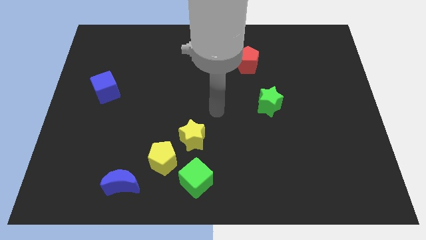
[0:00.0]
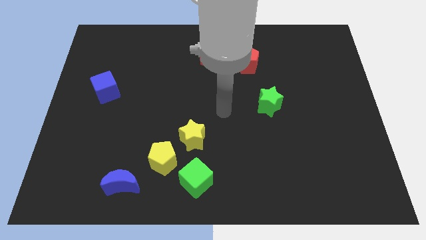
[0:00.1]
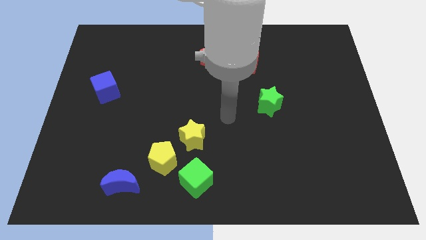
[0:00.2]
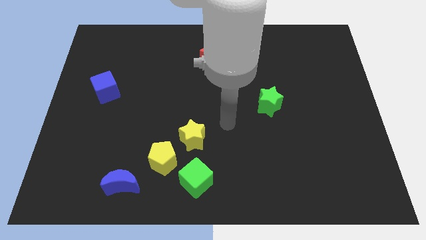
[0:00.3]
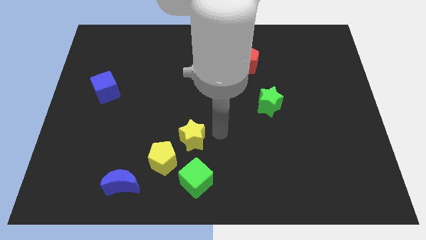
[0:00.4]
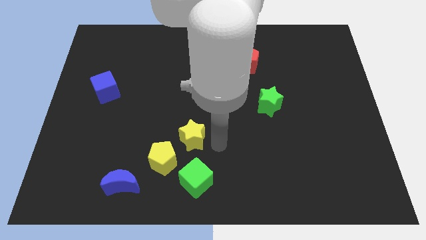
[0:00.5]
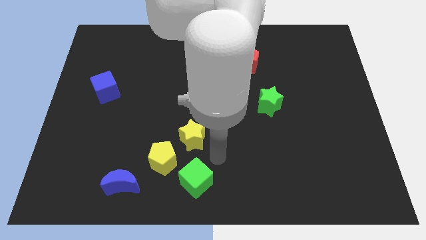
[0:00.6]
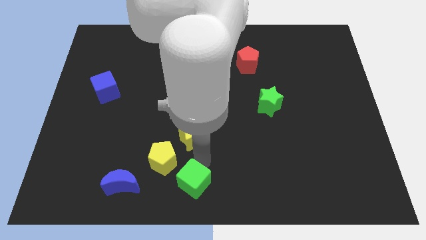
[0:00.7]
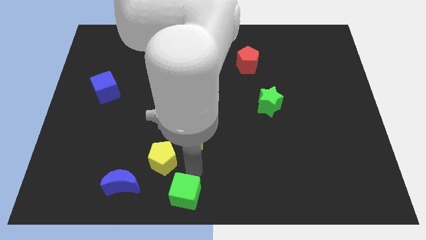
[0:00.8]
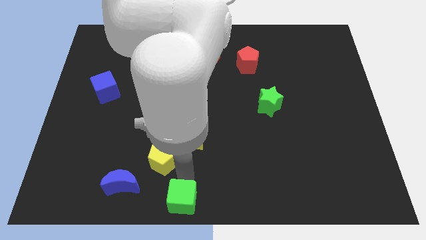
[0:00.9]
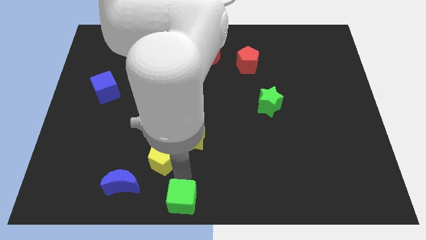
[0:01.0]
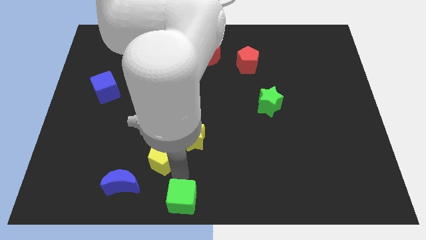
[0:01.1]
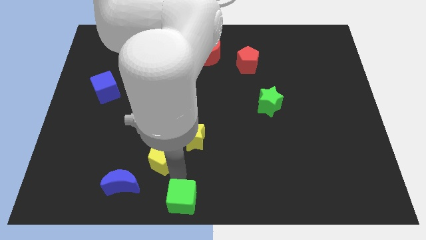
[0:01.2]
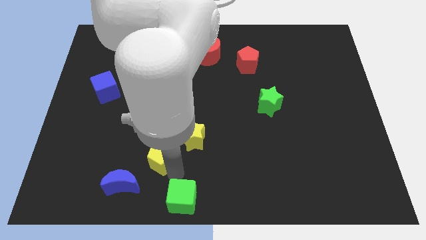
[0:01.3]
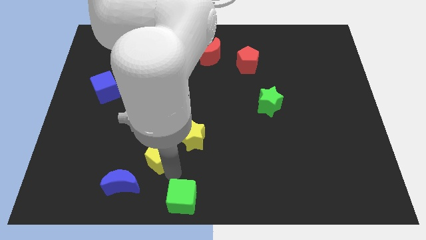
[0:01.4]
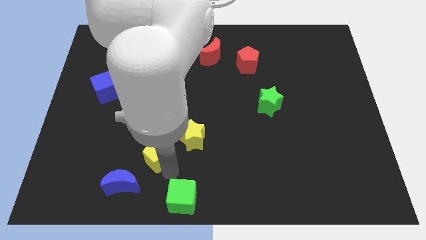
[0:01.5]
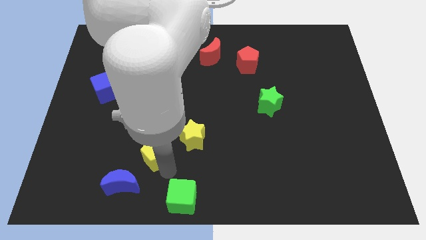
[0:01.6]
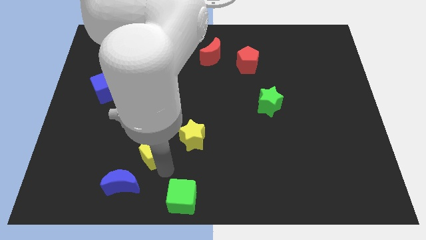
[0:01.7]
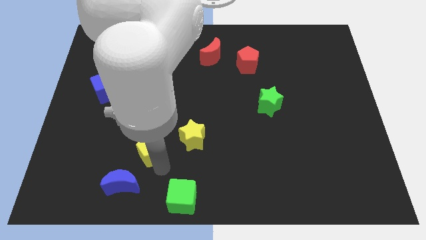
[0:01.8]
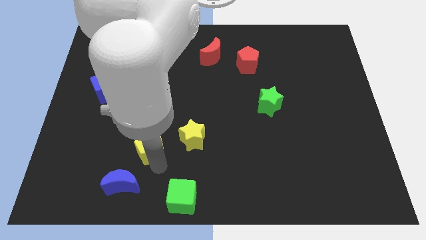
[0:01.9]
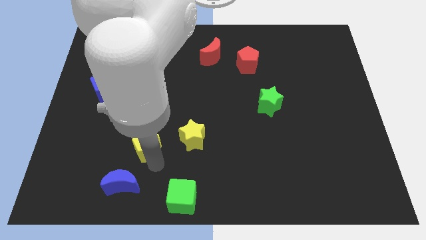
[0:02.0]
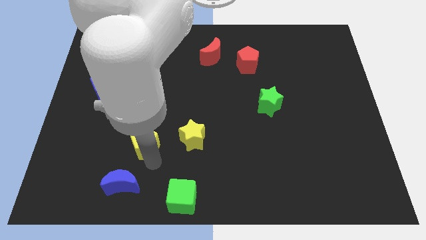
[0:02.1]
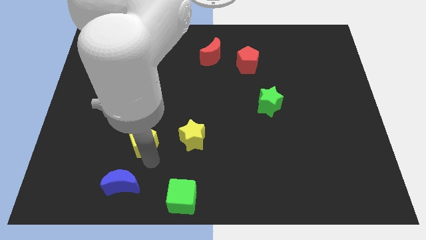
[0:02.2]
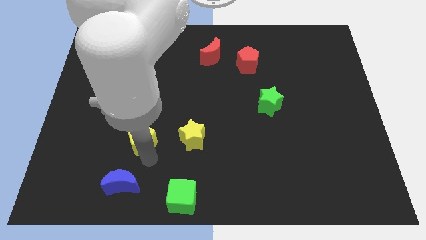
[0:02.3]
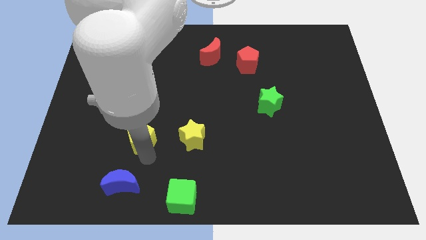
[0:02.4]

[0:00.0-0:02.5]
move the yellow pentagon away from the yellow star, green cube, and blue moon

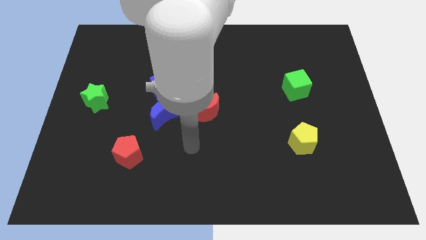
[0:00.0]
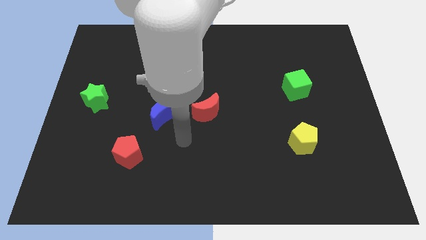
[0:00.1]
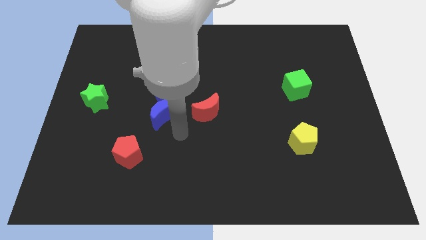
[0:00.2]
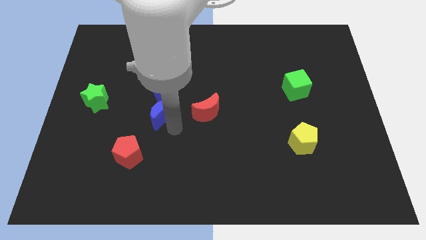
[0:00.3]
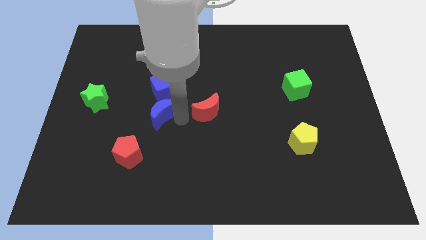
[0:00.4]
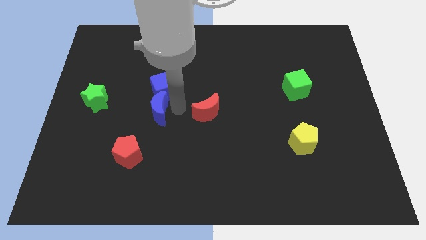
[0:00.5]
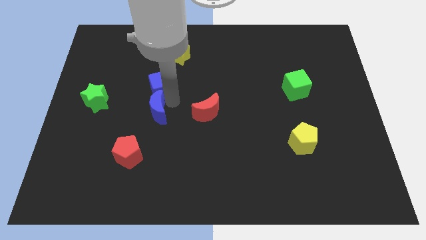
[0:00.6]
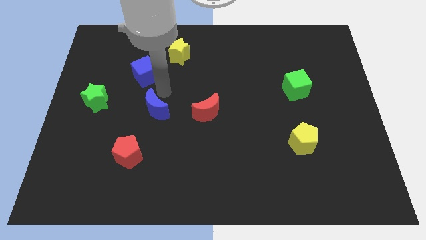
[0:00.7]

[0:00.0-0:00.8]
separate the blue moon from the blue cube

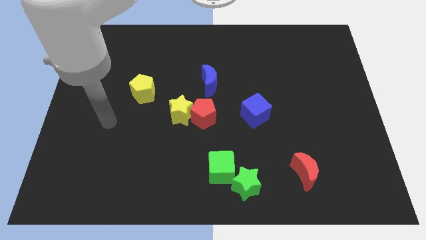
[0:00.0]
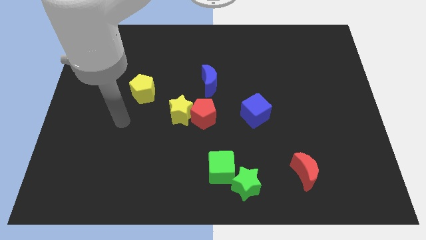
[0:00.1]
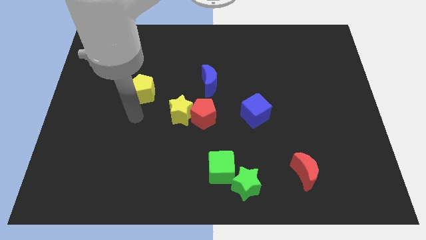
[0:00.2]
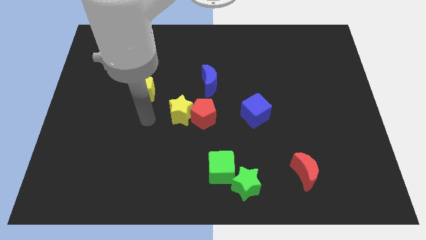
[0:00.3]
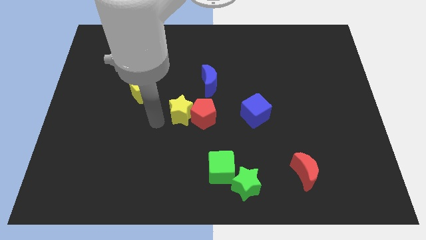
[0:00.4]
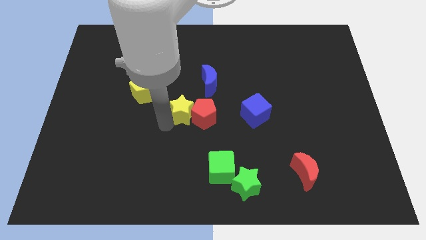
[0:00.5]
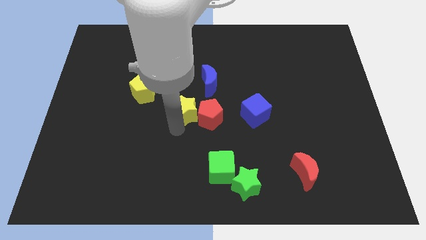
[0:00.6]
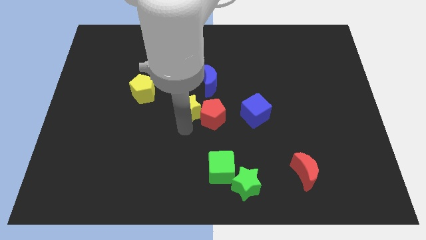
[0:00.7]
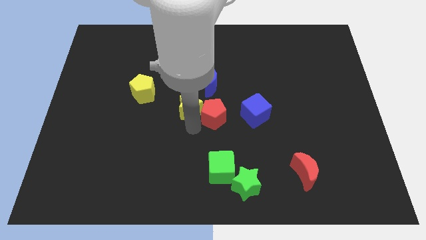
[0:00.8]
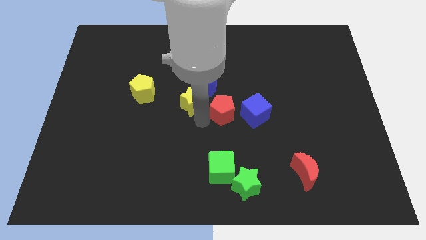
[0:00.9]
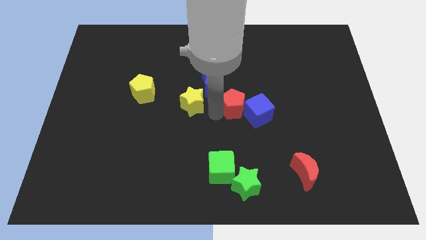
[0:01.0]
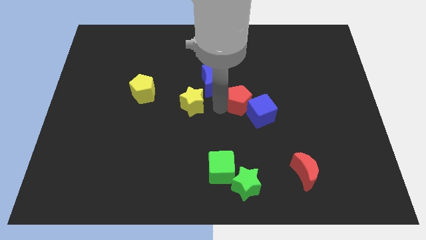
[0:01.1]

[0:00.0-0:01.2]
move the yellow star away from the red pentagon

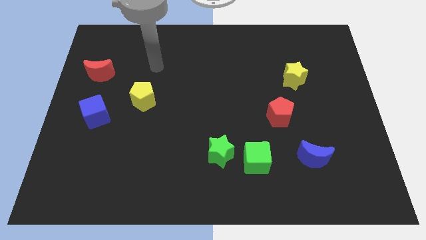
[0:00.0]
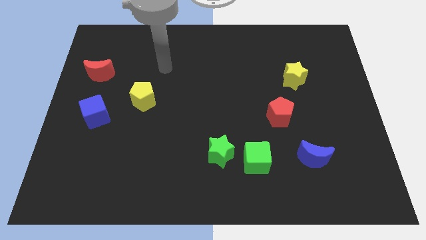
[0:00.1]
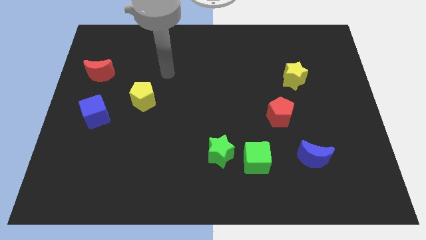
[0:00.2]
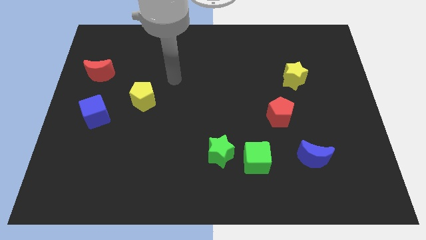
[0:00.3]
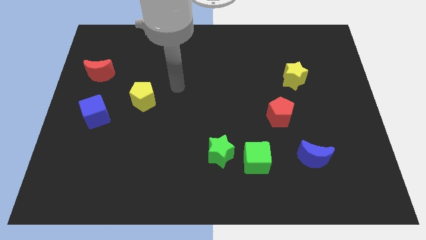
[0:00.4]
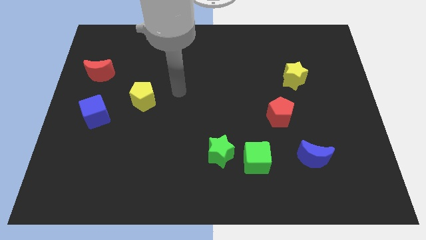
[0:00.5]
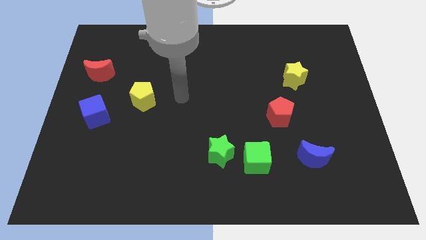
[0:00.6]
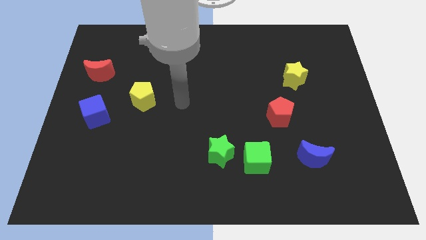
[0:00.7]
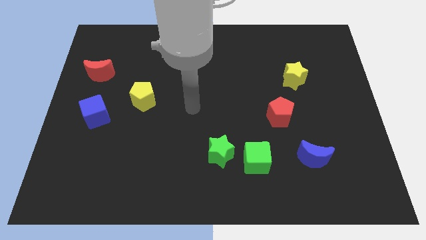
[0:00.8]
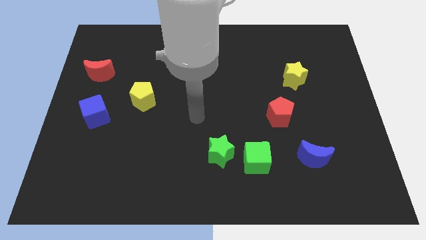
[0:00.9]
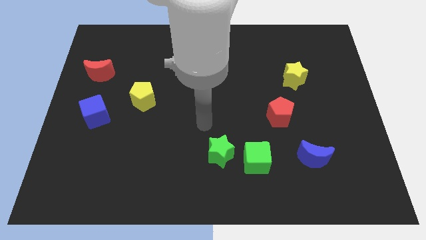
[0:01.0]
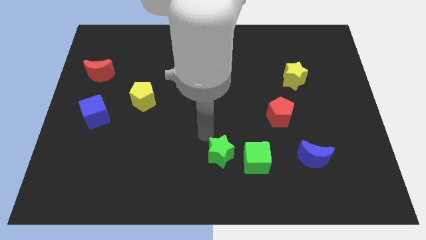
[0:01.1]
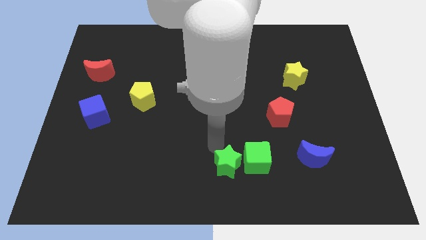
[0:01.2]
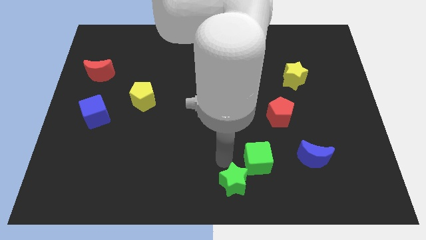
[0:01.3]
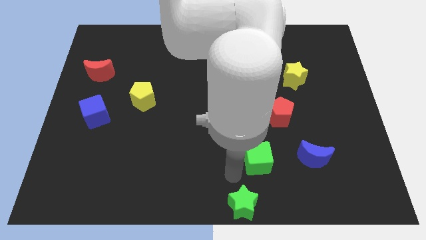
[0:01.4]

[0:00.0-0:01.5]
separate the green cube from the green star

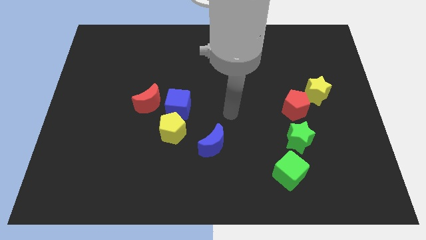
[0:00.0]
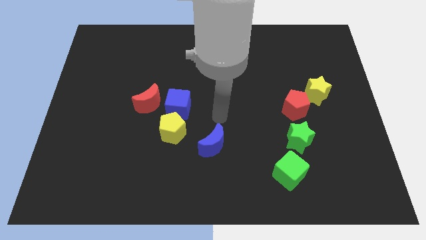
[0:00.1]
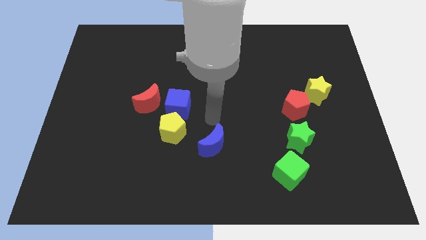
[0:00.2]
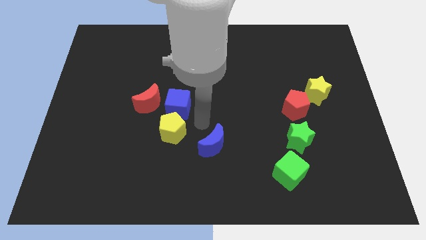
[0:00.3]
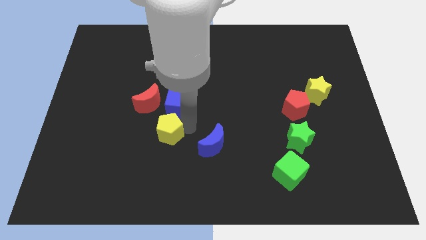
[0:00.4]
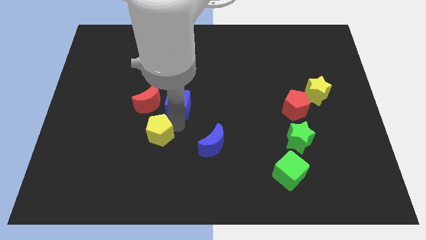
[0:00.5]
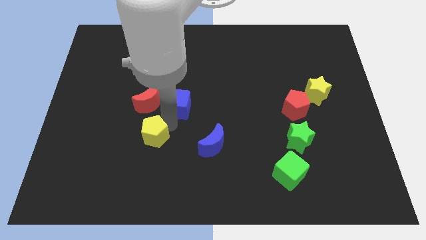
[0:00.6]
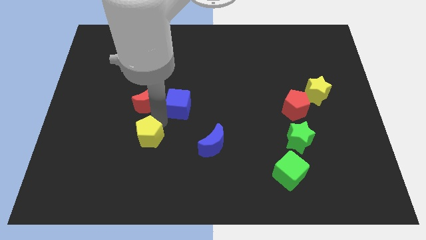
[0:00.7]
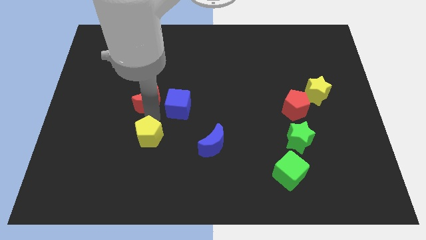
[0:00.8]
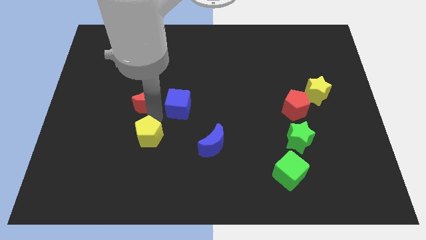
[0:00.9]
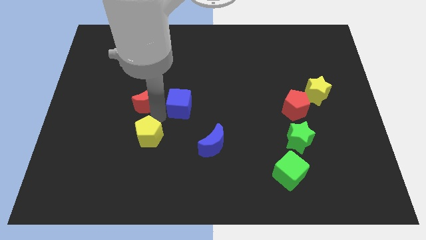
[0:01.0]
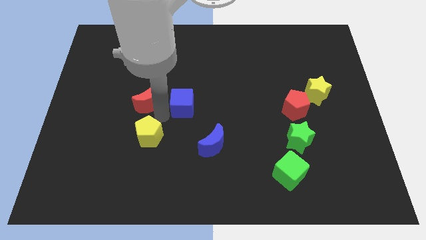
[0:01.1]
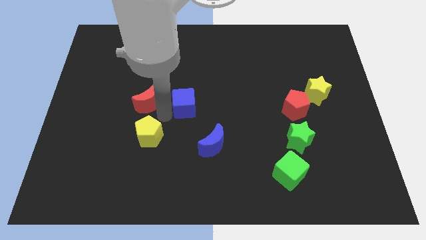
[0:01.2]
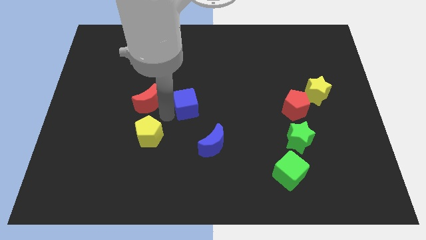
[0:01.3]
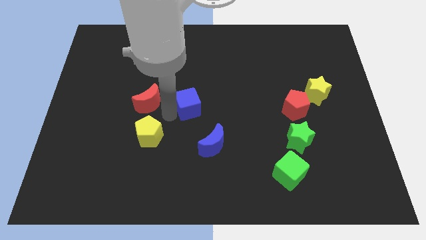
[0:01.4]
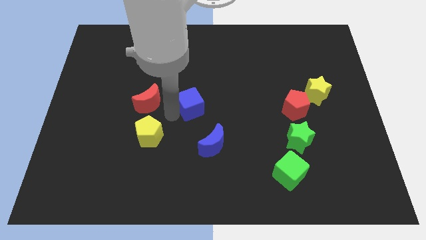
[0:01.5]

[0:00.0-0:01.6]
separate the blue cube from the yellow pentagon and red moon

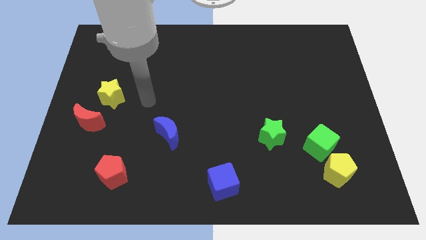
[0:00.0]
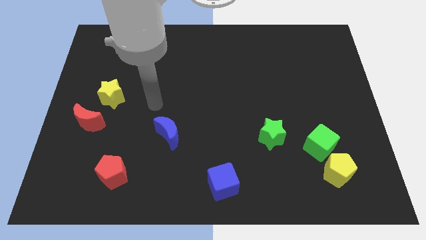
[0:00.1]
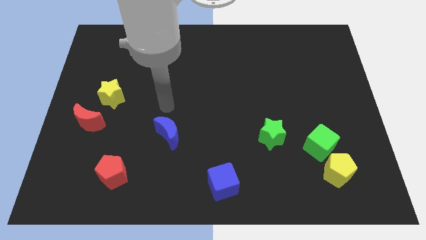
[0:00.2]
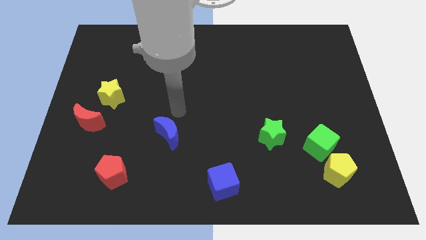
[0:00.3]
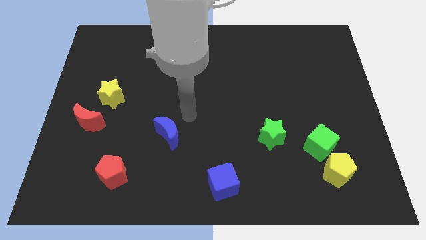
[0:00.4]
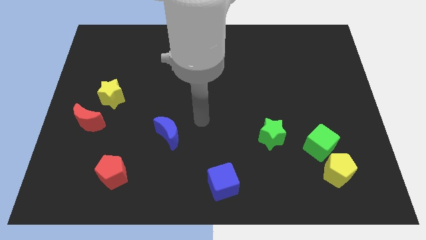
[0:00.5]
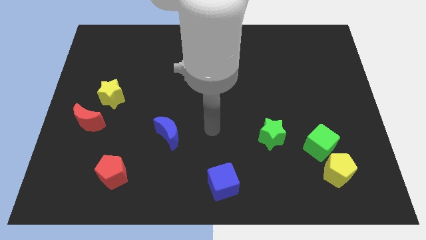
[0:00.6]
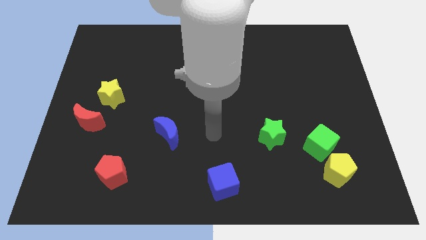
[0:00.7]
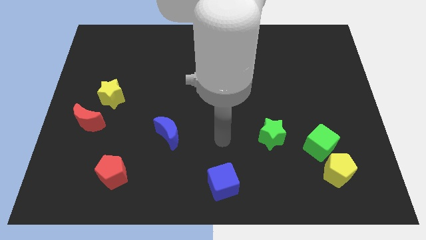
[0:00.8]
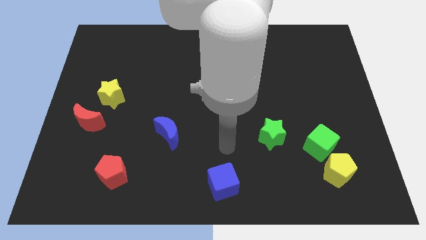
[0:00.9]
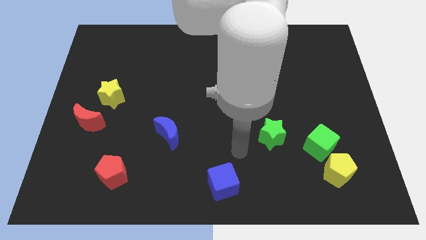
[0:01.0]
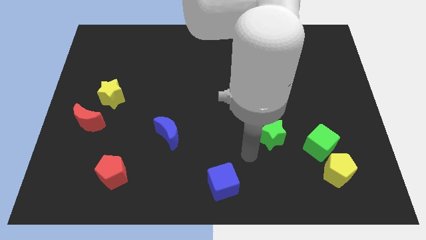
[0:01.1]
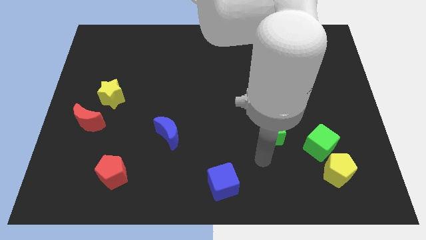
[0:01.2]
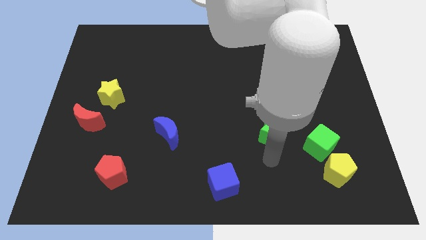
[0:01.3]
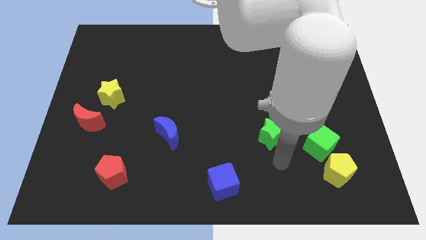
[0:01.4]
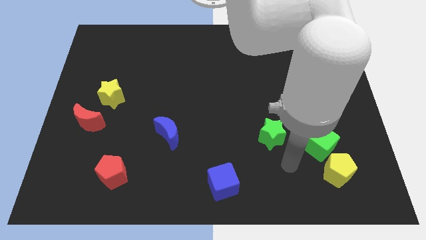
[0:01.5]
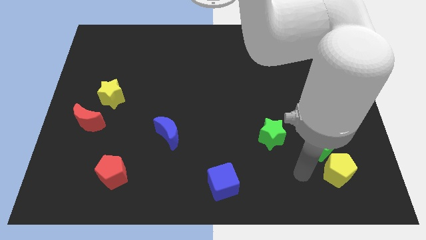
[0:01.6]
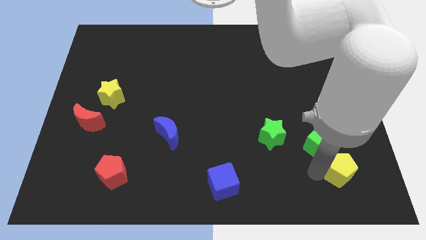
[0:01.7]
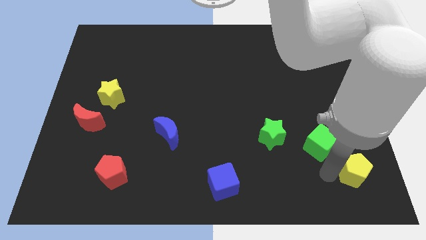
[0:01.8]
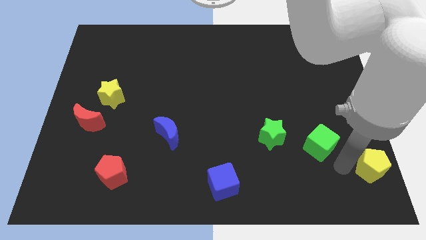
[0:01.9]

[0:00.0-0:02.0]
pull the green cube apart from the yellow pentagon
